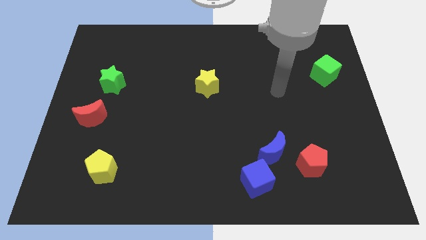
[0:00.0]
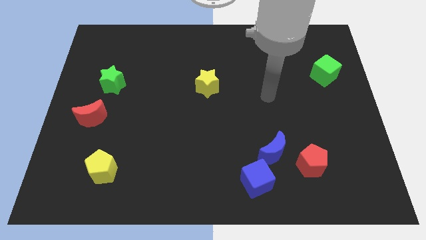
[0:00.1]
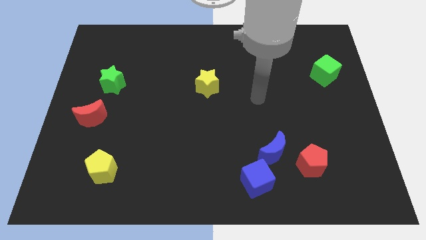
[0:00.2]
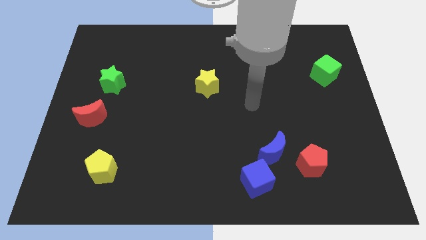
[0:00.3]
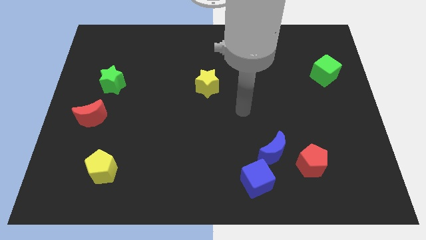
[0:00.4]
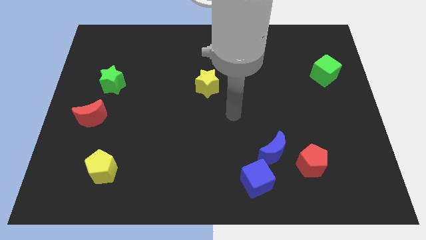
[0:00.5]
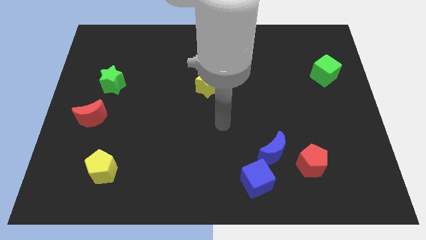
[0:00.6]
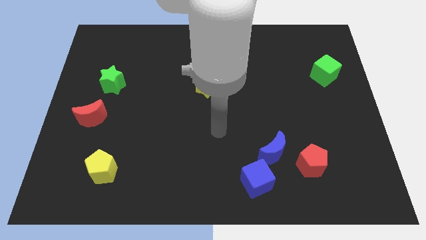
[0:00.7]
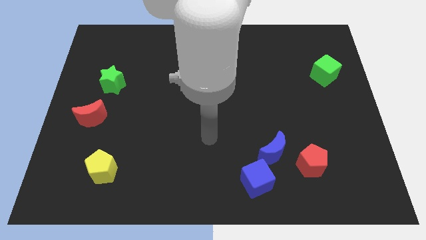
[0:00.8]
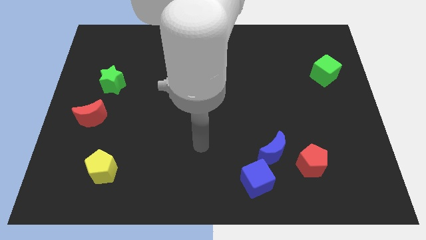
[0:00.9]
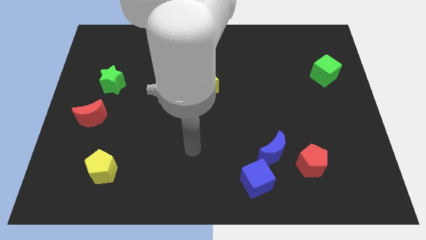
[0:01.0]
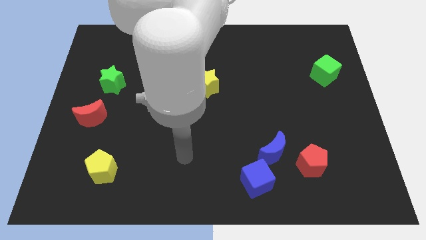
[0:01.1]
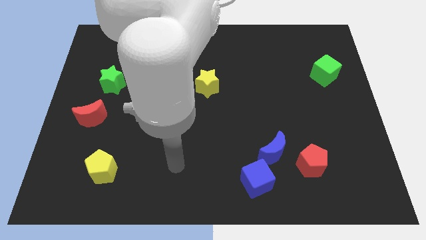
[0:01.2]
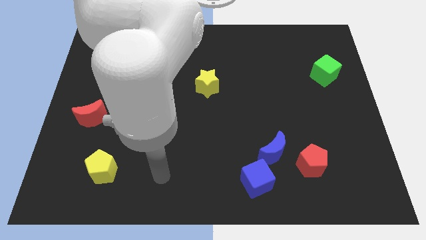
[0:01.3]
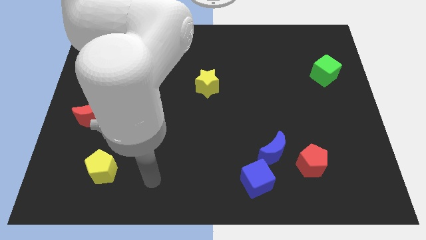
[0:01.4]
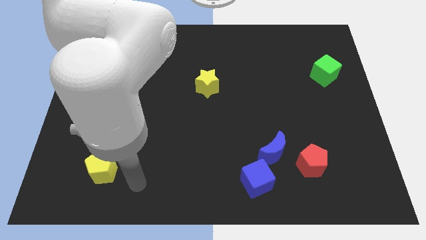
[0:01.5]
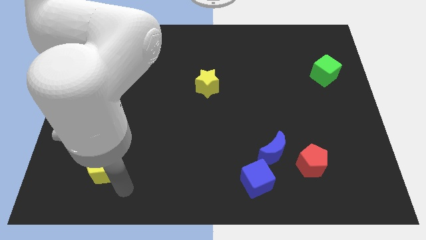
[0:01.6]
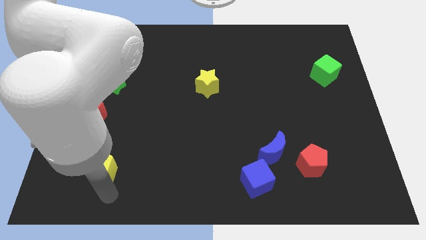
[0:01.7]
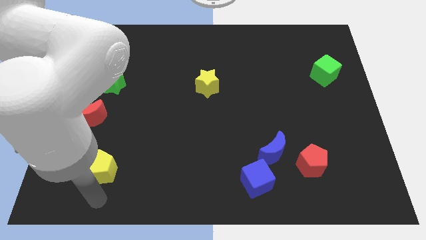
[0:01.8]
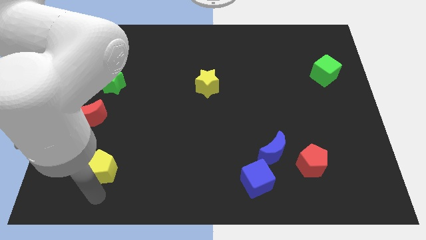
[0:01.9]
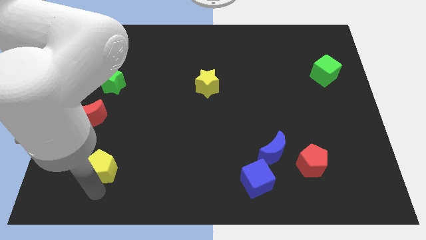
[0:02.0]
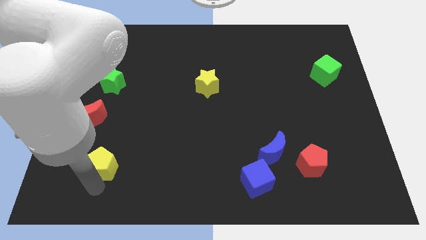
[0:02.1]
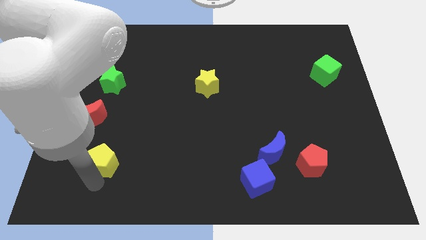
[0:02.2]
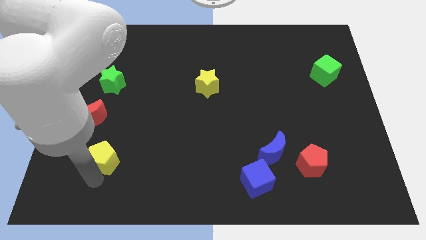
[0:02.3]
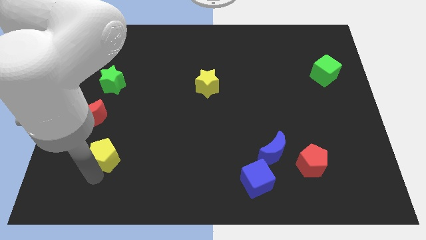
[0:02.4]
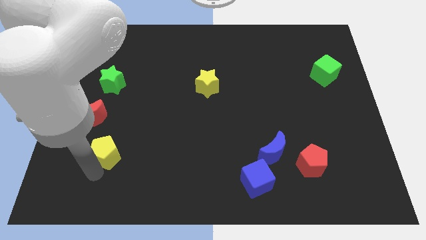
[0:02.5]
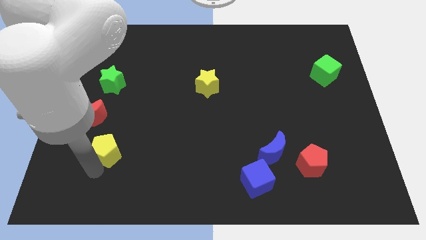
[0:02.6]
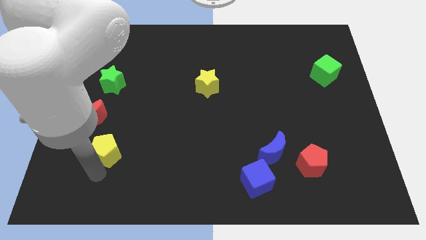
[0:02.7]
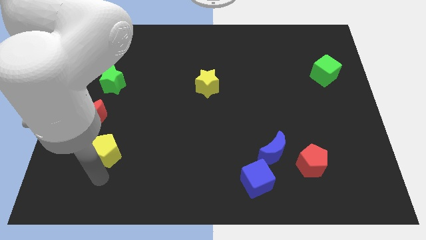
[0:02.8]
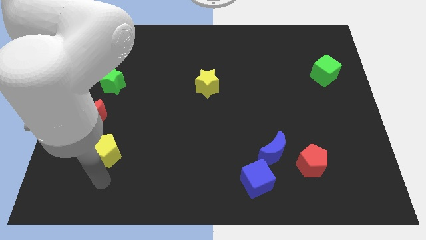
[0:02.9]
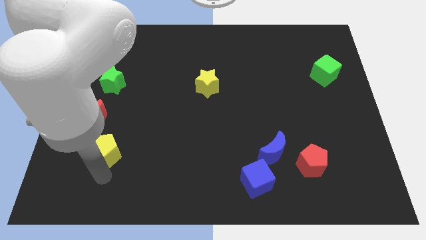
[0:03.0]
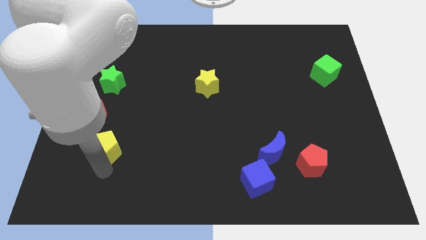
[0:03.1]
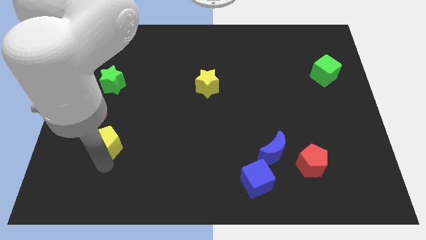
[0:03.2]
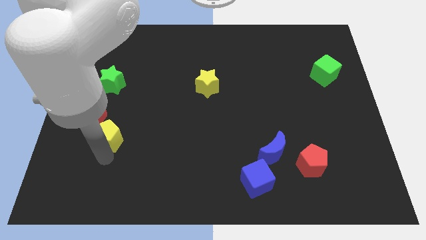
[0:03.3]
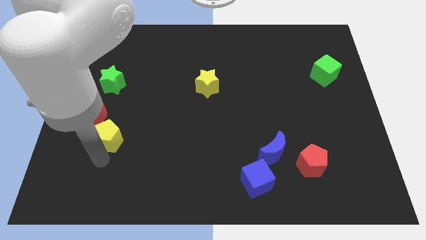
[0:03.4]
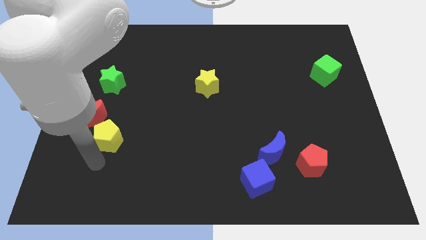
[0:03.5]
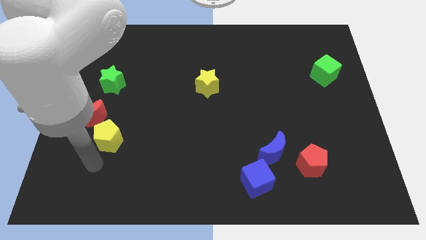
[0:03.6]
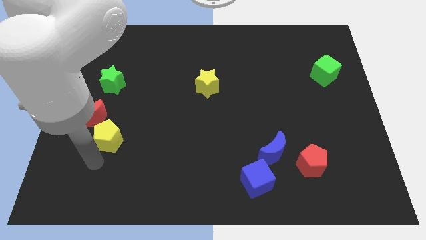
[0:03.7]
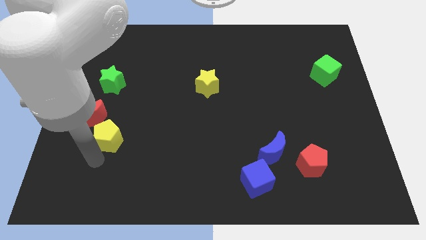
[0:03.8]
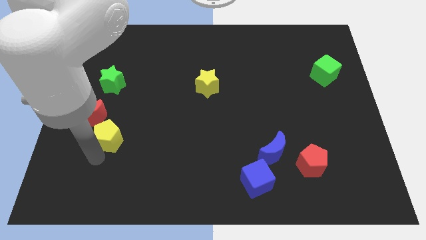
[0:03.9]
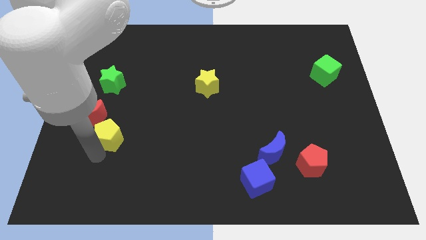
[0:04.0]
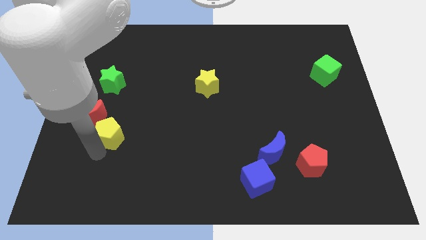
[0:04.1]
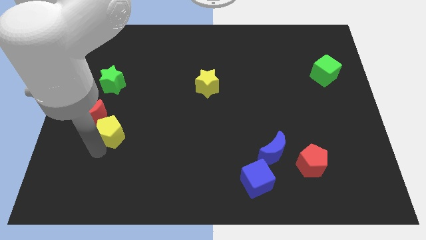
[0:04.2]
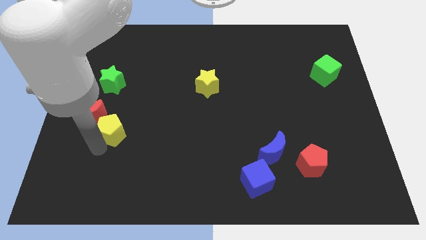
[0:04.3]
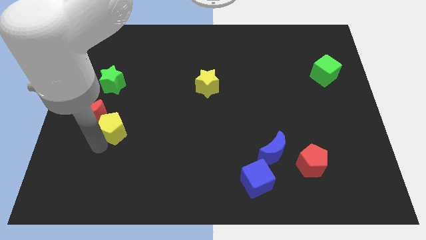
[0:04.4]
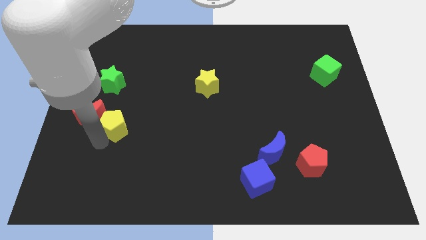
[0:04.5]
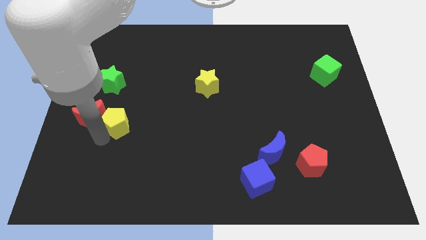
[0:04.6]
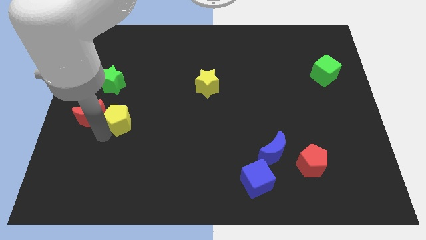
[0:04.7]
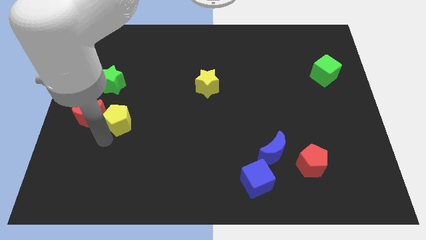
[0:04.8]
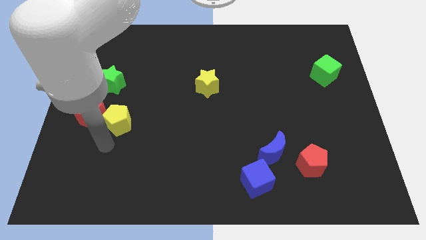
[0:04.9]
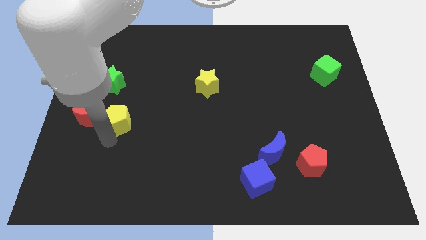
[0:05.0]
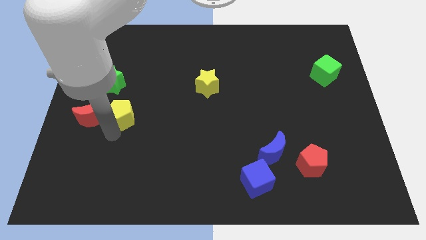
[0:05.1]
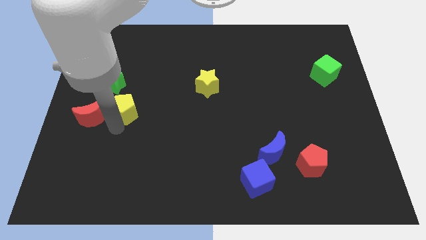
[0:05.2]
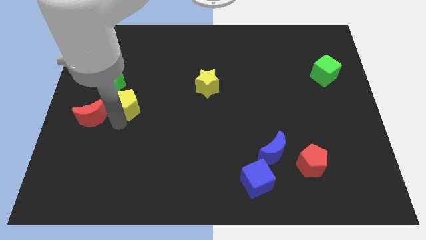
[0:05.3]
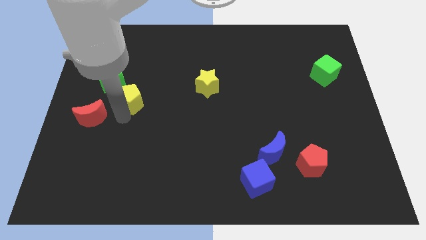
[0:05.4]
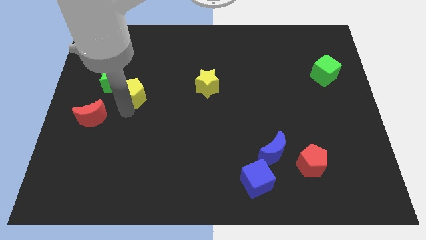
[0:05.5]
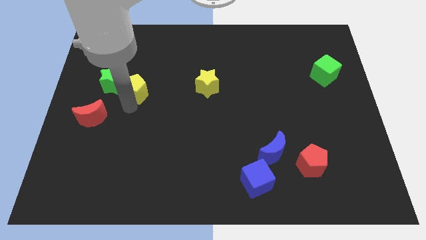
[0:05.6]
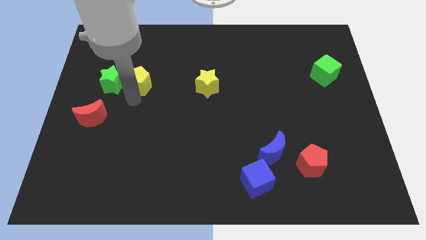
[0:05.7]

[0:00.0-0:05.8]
move the yellow pentagon to the top right side of the green star

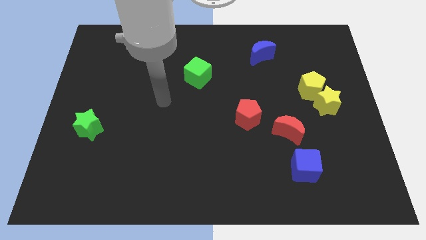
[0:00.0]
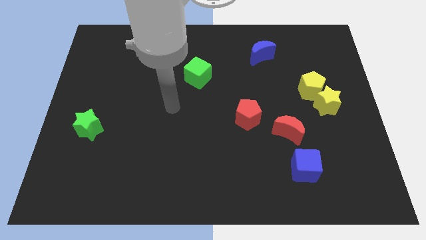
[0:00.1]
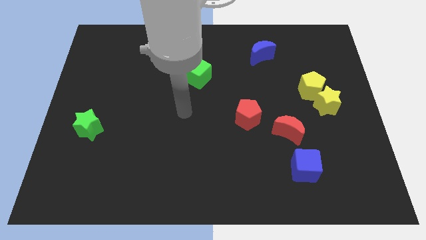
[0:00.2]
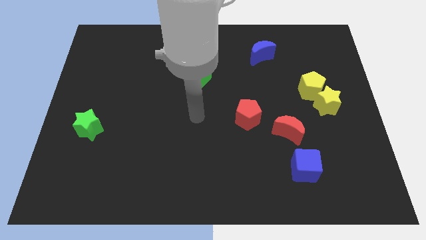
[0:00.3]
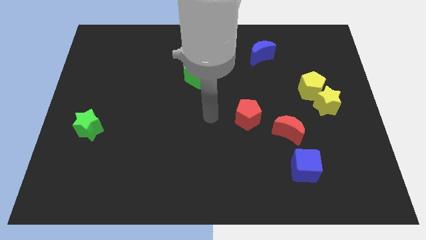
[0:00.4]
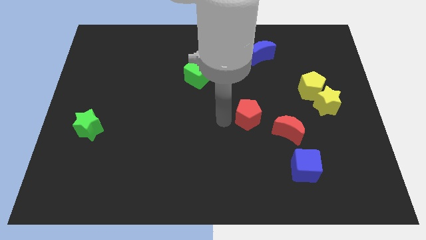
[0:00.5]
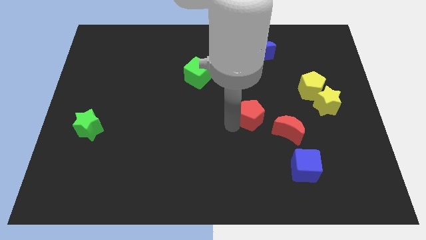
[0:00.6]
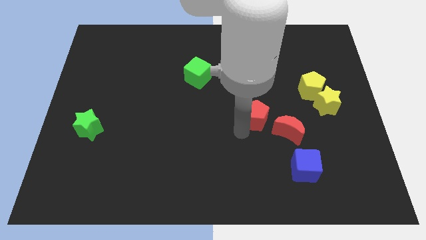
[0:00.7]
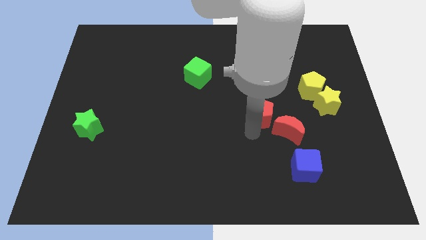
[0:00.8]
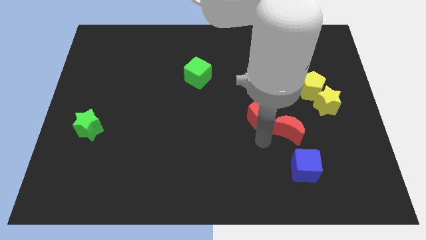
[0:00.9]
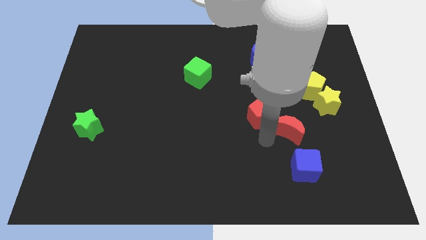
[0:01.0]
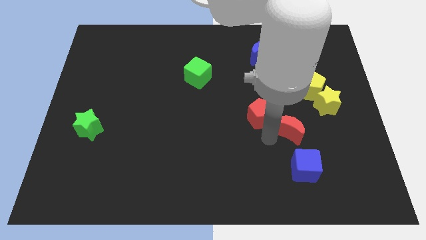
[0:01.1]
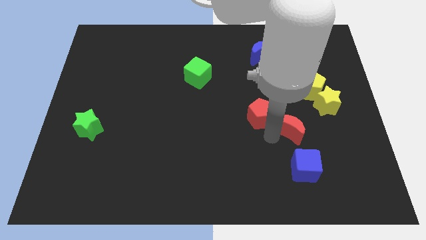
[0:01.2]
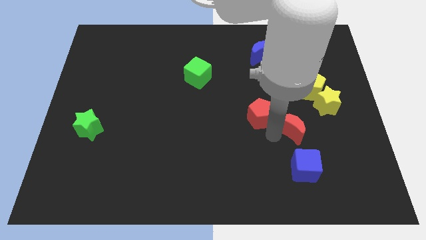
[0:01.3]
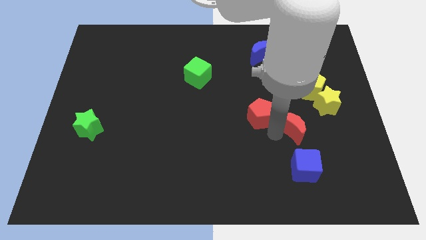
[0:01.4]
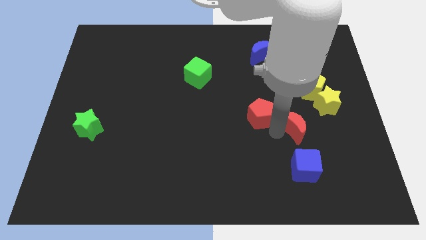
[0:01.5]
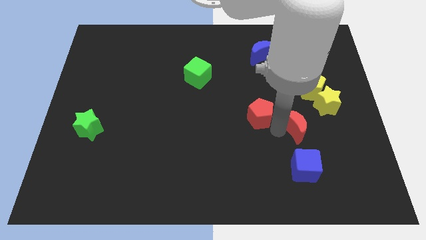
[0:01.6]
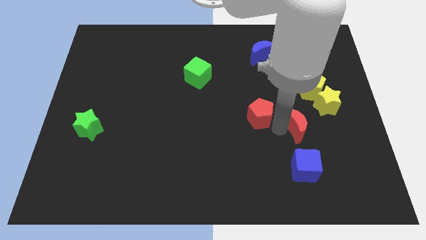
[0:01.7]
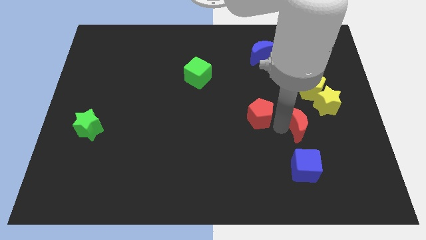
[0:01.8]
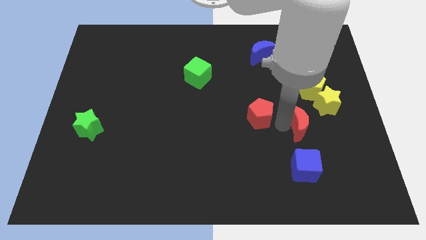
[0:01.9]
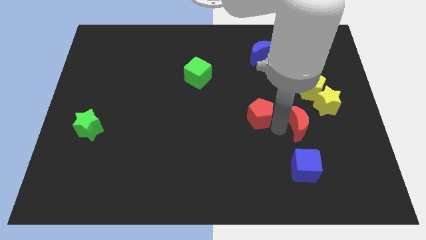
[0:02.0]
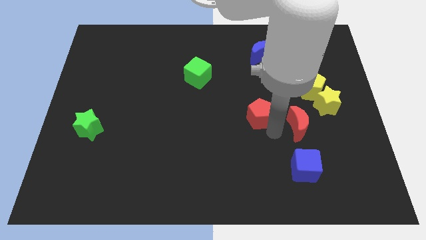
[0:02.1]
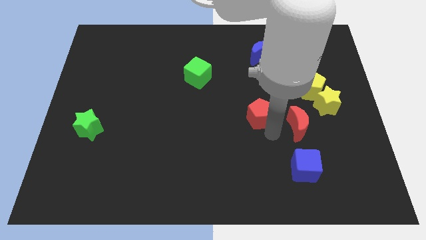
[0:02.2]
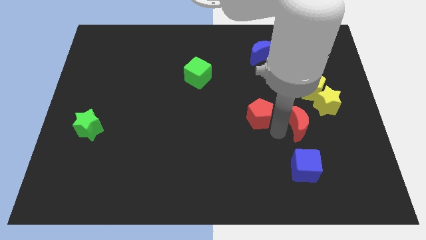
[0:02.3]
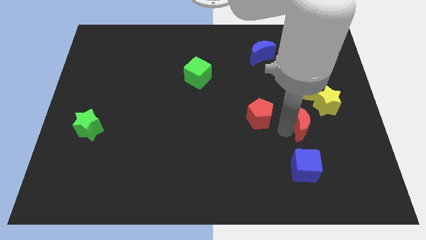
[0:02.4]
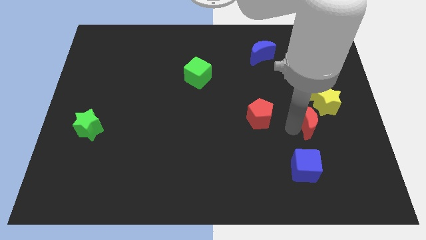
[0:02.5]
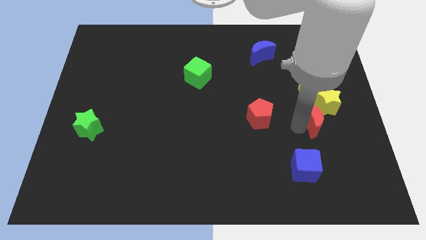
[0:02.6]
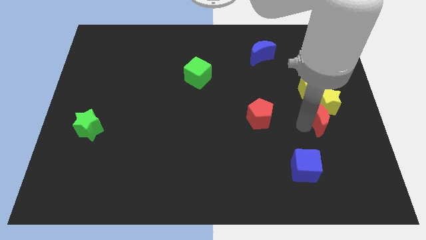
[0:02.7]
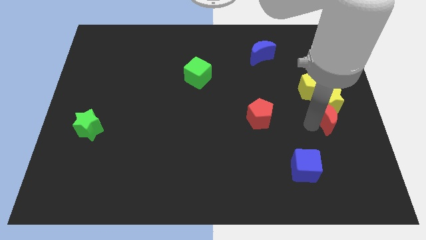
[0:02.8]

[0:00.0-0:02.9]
push the red moon diagonally down and to the right of the yellow pentagon
